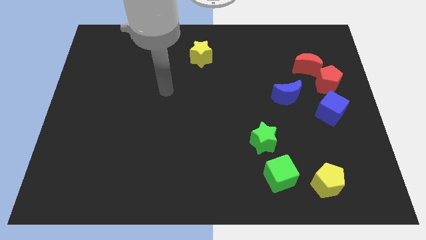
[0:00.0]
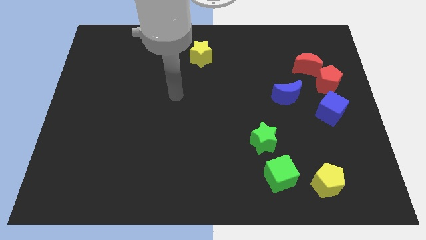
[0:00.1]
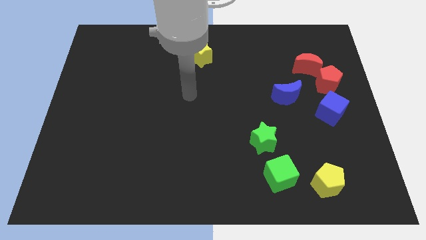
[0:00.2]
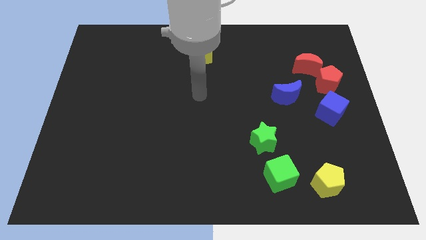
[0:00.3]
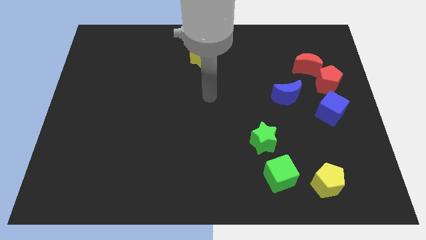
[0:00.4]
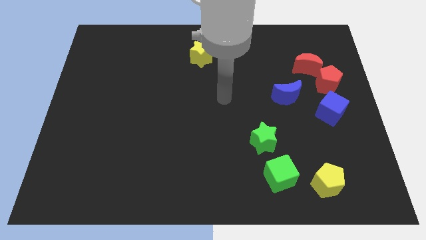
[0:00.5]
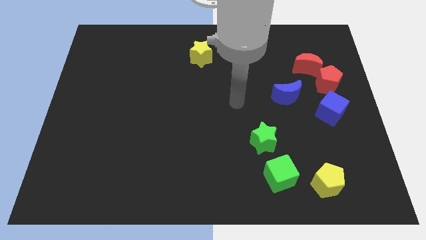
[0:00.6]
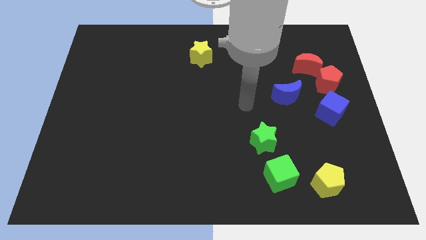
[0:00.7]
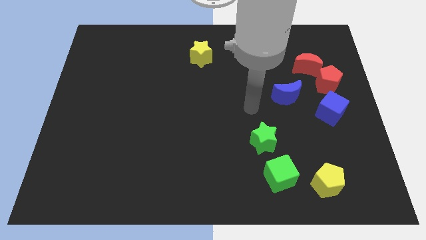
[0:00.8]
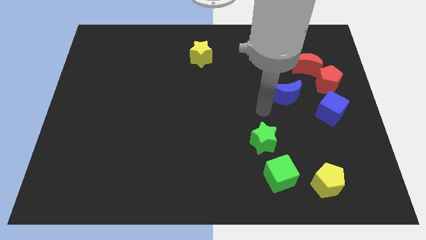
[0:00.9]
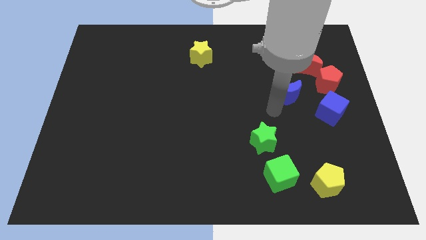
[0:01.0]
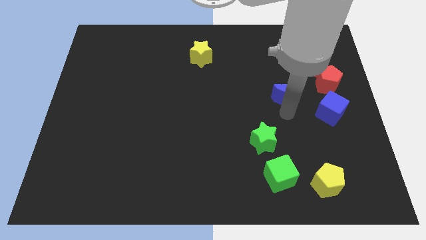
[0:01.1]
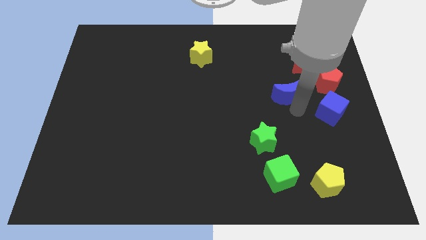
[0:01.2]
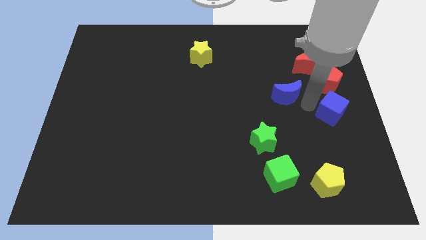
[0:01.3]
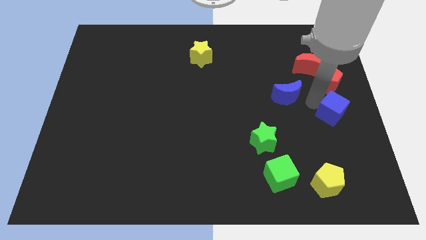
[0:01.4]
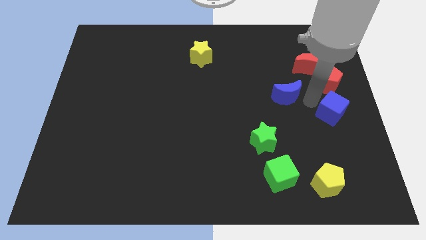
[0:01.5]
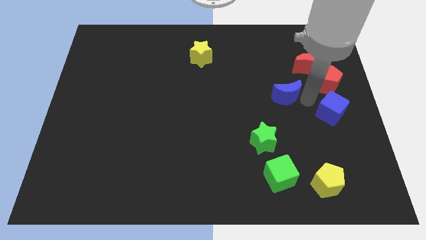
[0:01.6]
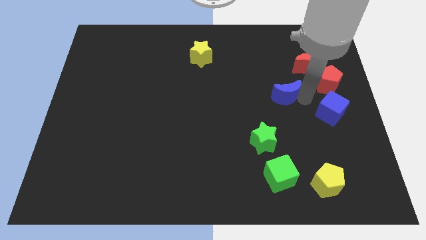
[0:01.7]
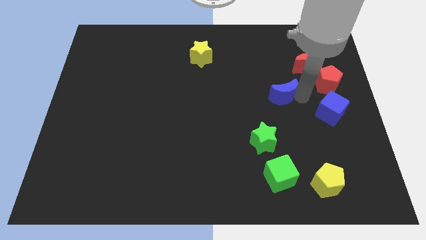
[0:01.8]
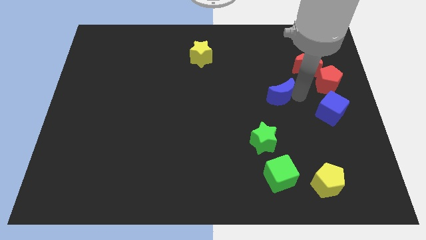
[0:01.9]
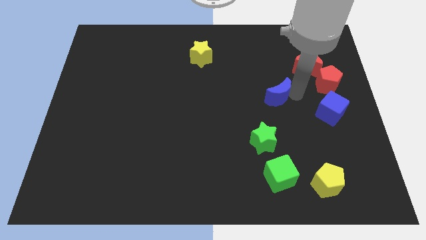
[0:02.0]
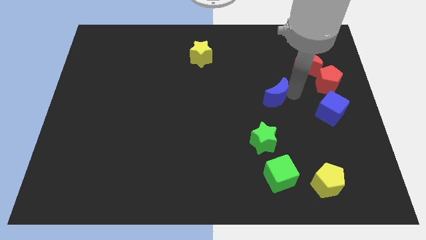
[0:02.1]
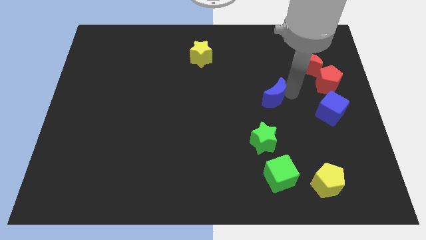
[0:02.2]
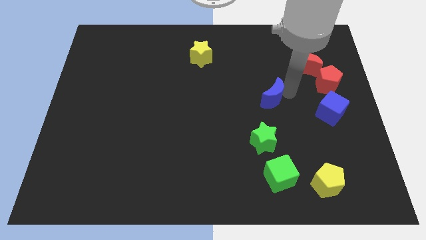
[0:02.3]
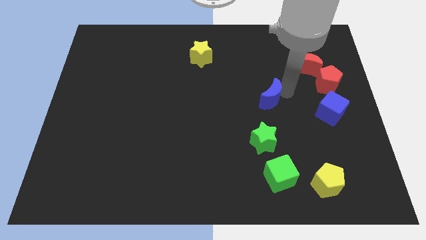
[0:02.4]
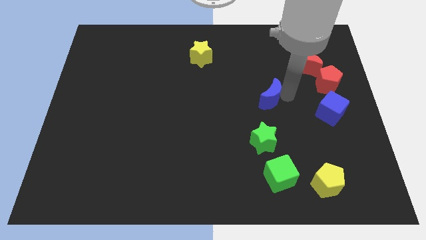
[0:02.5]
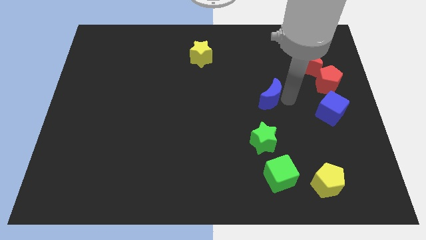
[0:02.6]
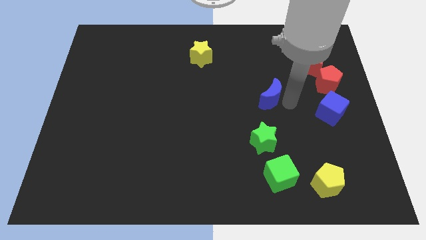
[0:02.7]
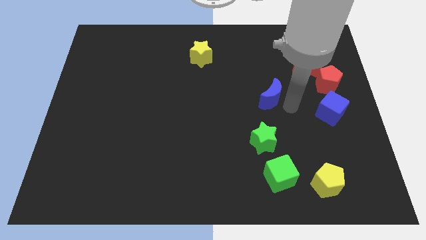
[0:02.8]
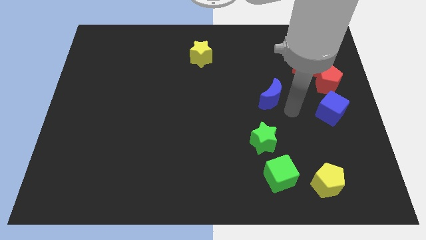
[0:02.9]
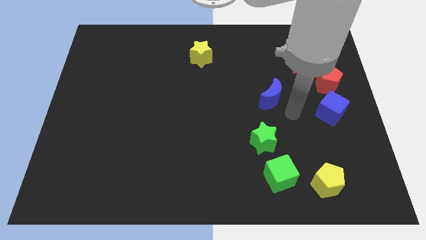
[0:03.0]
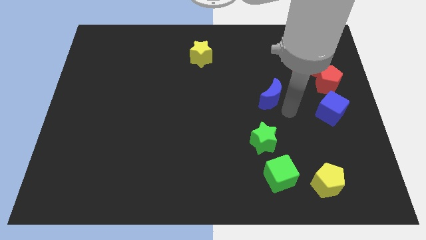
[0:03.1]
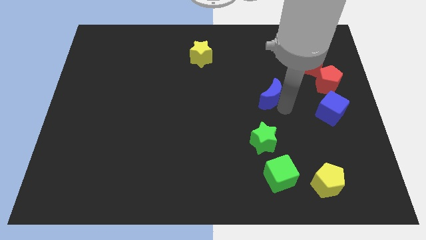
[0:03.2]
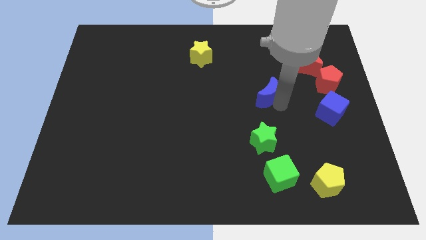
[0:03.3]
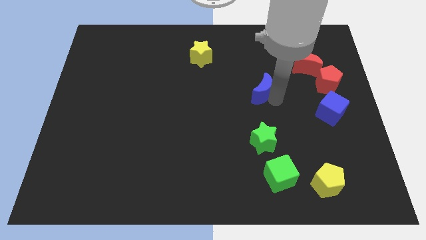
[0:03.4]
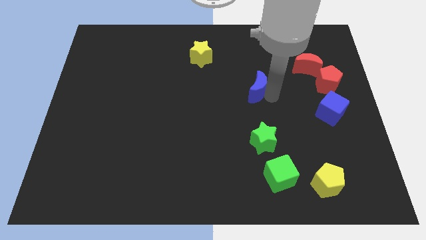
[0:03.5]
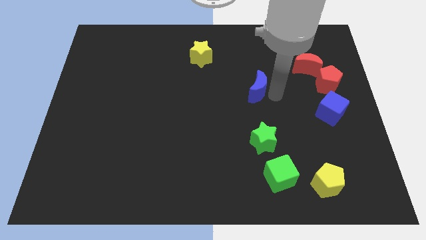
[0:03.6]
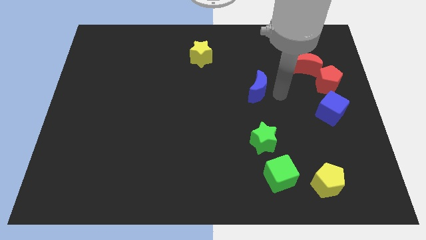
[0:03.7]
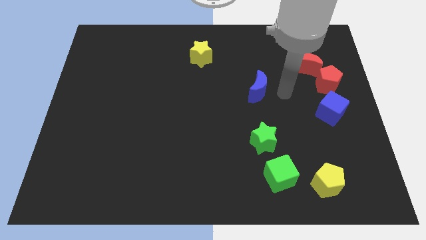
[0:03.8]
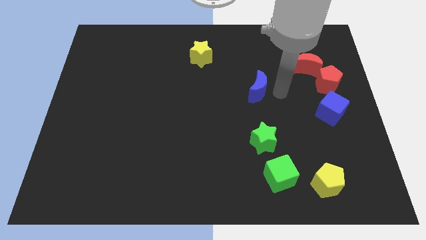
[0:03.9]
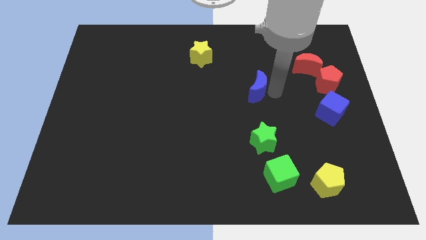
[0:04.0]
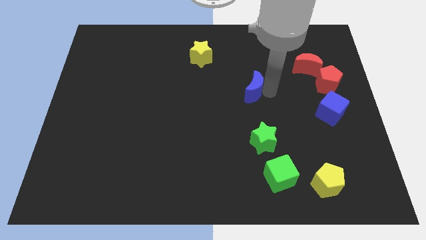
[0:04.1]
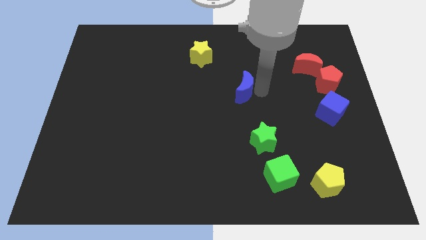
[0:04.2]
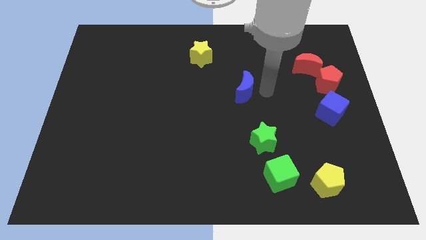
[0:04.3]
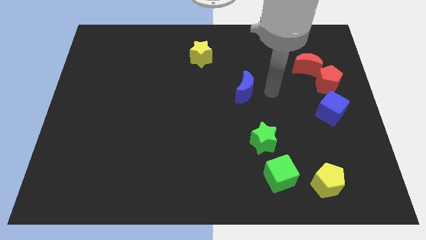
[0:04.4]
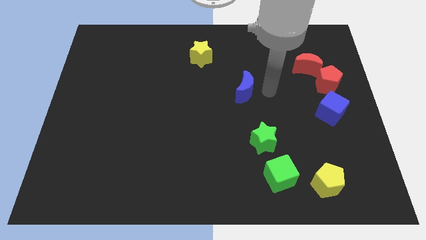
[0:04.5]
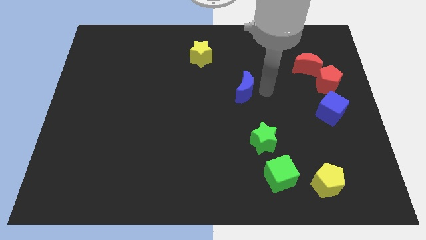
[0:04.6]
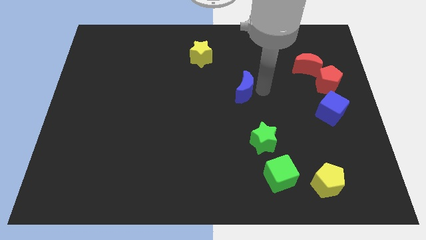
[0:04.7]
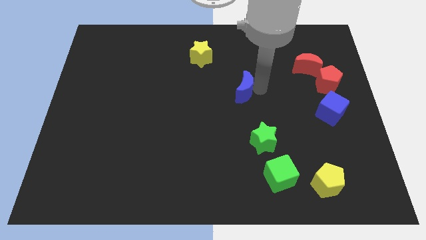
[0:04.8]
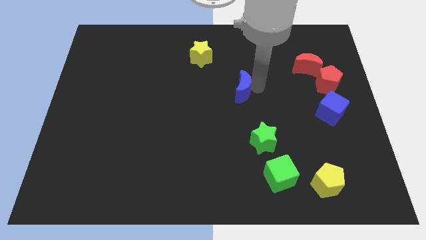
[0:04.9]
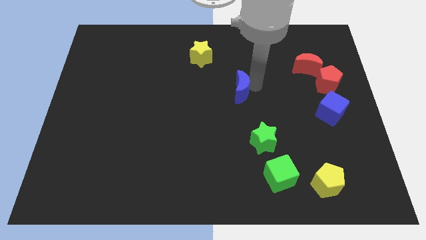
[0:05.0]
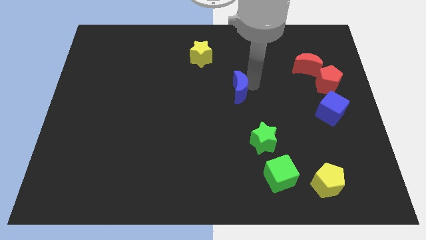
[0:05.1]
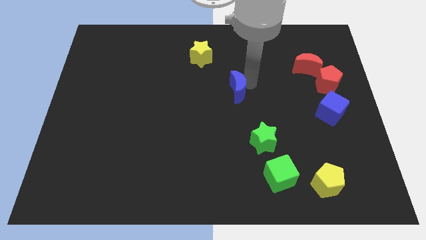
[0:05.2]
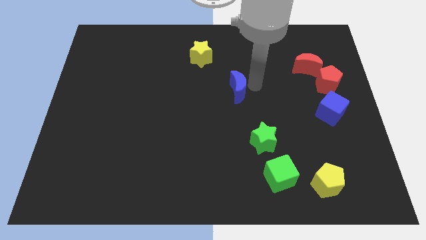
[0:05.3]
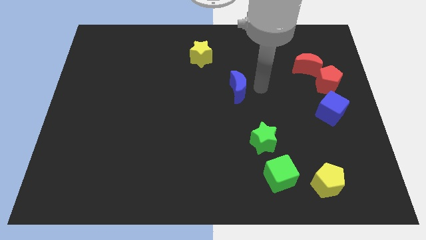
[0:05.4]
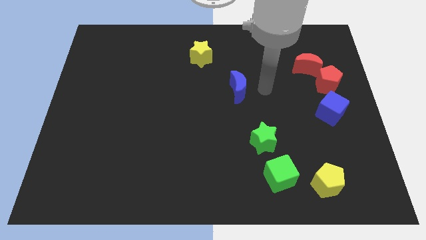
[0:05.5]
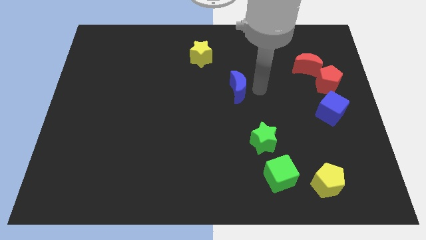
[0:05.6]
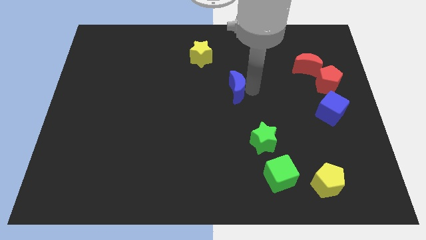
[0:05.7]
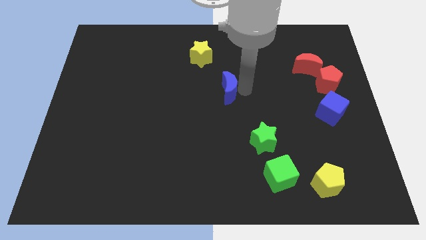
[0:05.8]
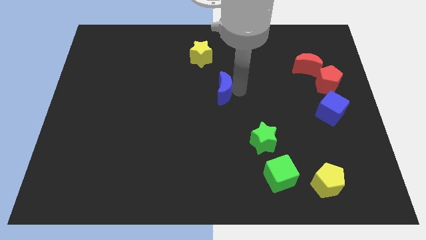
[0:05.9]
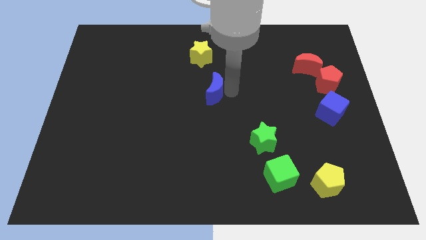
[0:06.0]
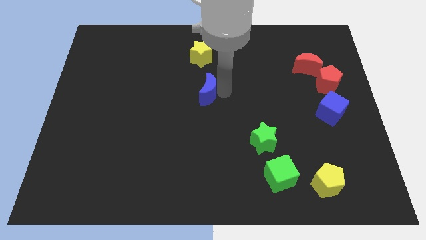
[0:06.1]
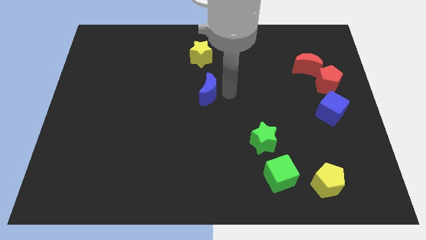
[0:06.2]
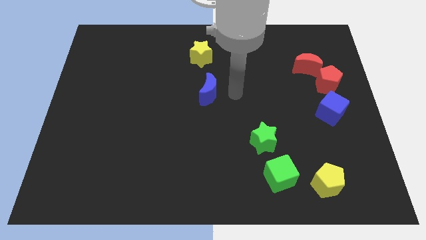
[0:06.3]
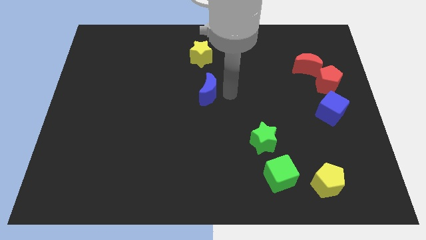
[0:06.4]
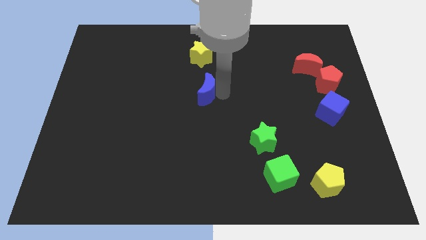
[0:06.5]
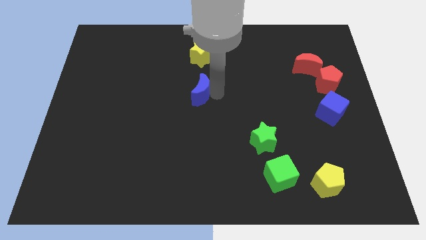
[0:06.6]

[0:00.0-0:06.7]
slide the blue moon to the left

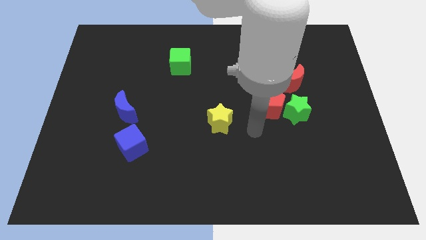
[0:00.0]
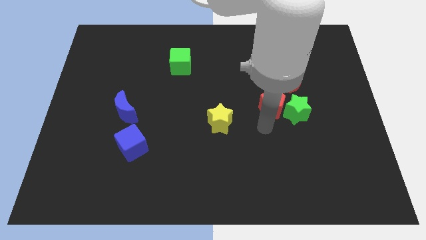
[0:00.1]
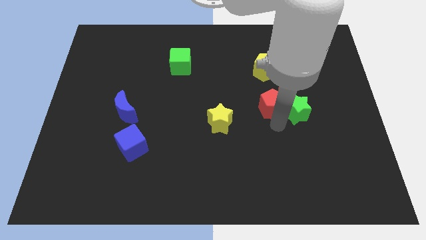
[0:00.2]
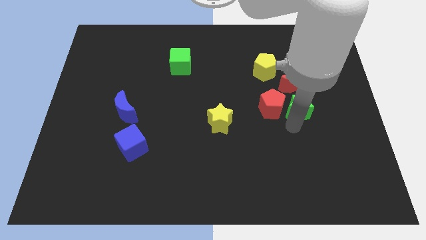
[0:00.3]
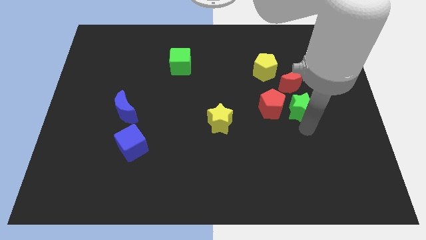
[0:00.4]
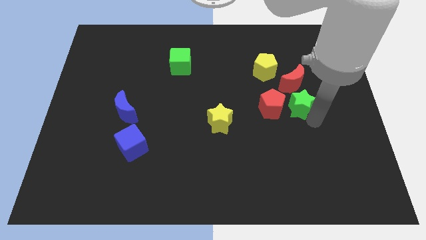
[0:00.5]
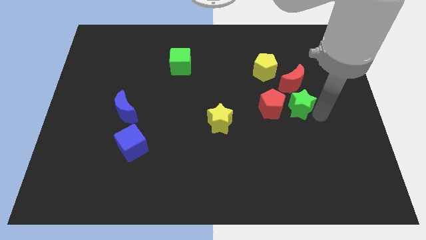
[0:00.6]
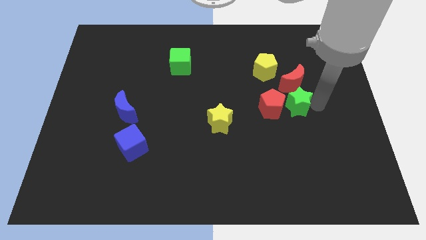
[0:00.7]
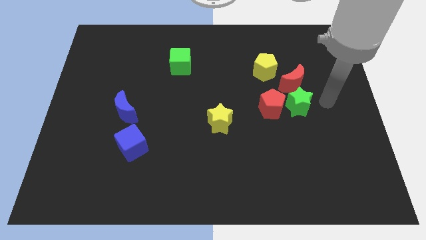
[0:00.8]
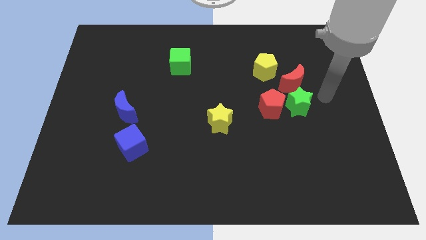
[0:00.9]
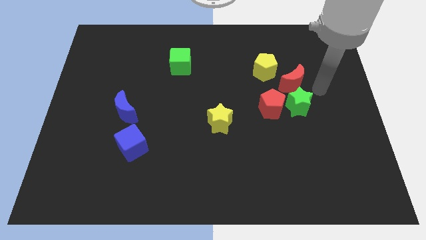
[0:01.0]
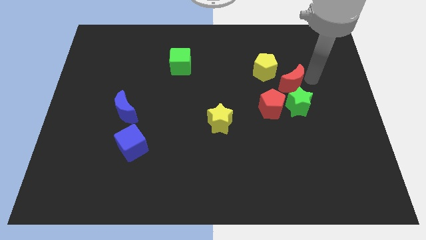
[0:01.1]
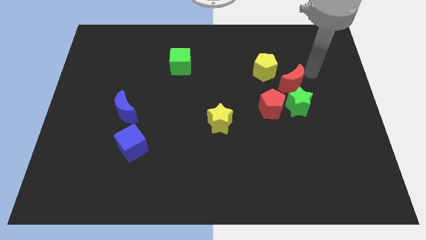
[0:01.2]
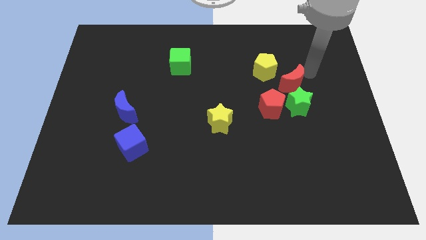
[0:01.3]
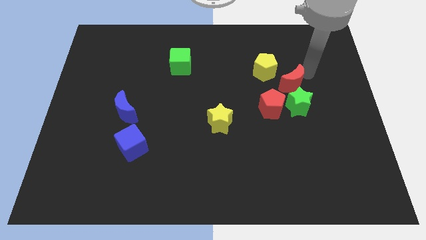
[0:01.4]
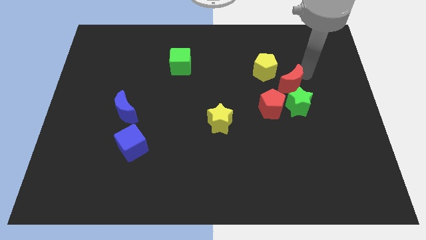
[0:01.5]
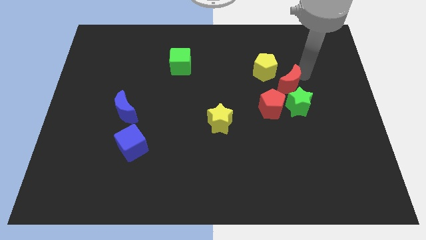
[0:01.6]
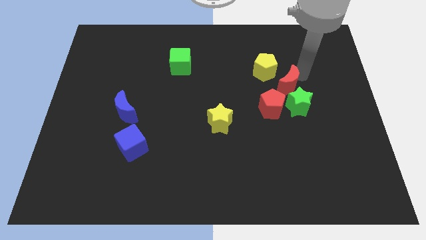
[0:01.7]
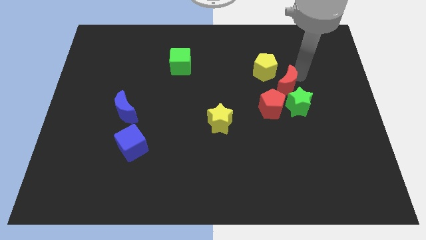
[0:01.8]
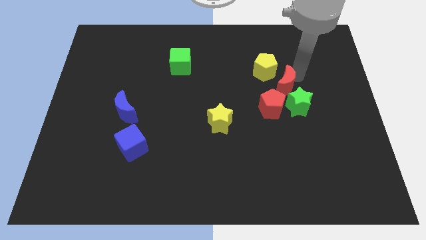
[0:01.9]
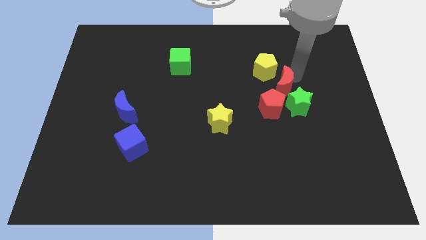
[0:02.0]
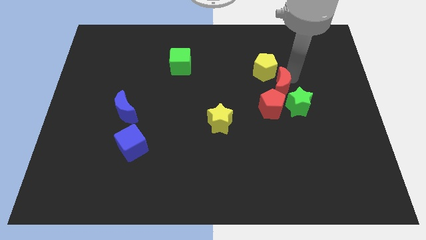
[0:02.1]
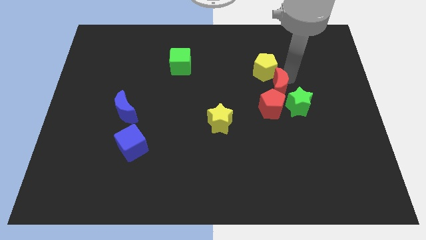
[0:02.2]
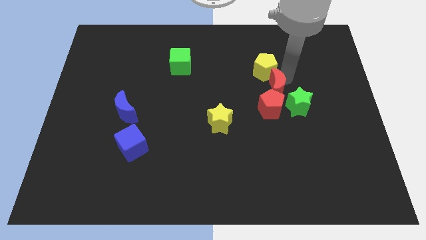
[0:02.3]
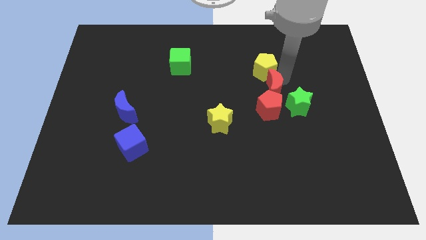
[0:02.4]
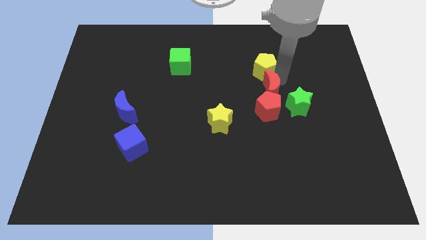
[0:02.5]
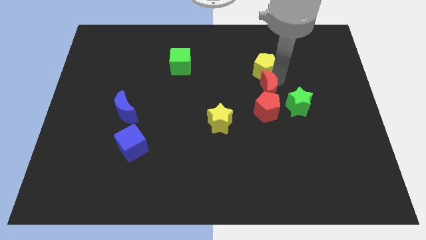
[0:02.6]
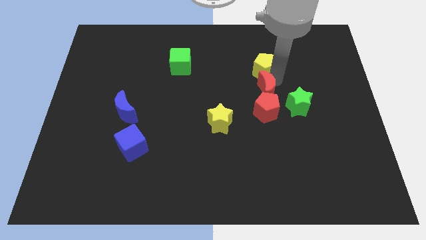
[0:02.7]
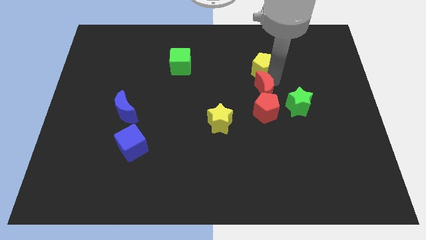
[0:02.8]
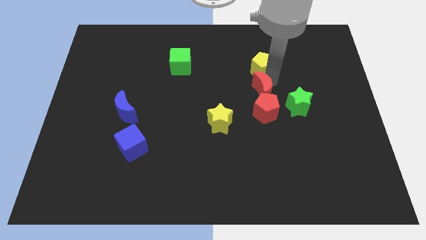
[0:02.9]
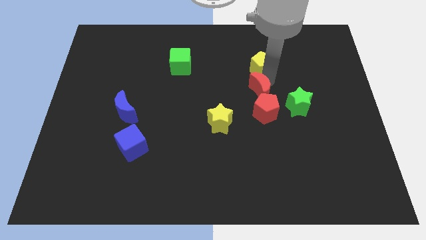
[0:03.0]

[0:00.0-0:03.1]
move the red moon down and to the left diagonally somewhat
